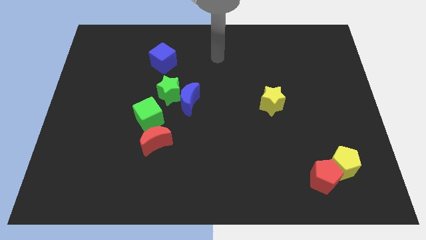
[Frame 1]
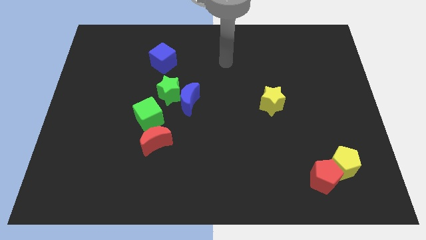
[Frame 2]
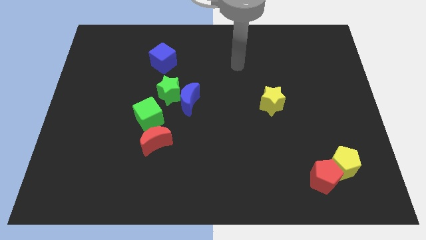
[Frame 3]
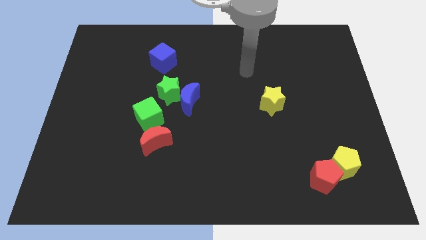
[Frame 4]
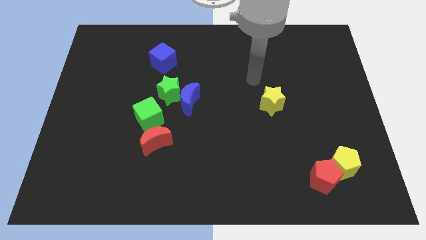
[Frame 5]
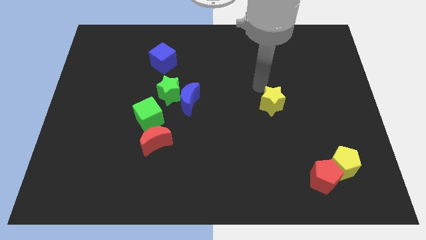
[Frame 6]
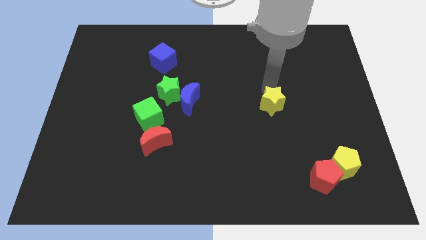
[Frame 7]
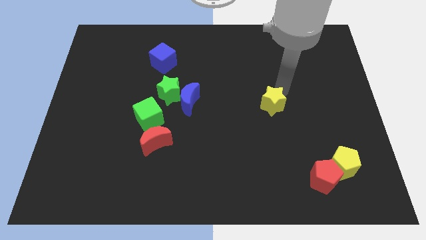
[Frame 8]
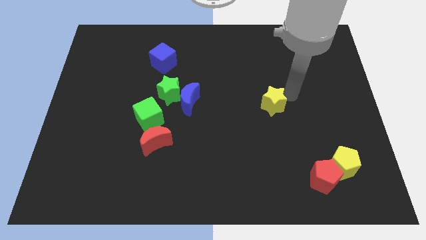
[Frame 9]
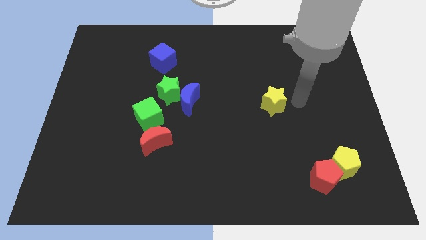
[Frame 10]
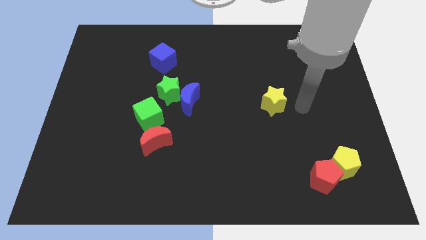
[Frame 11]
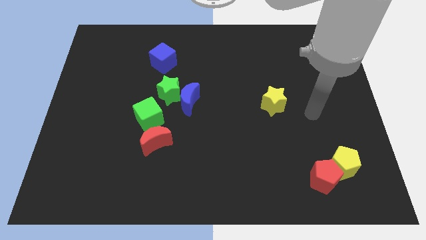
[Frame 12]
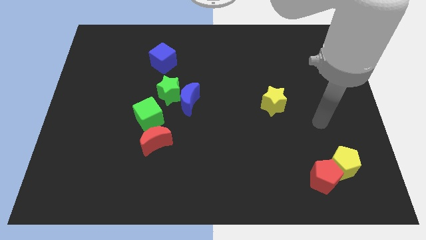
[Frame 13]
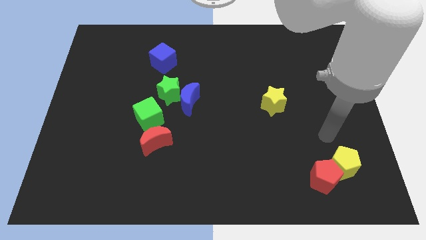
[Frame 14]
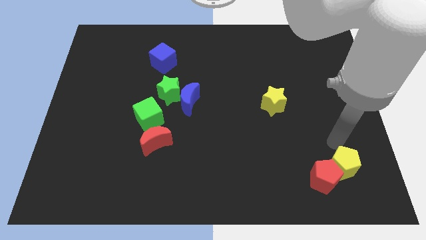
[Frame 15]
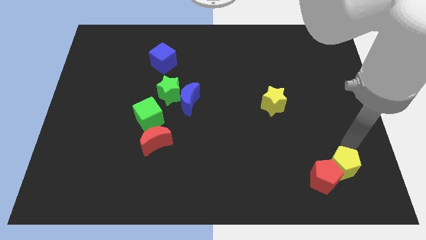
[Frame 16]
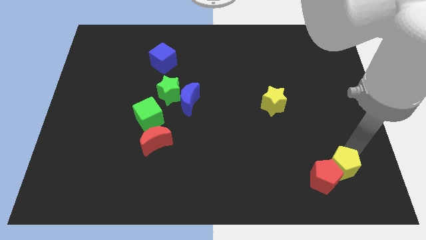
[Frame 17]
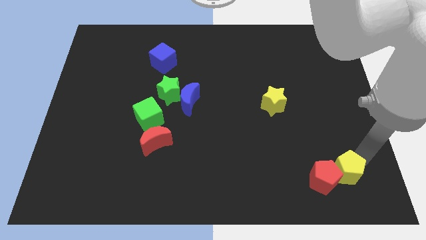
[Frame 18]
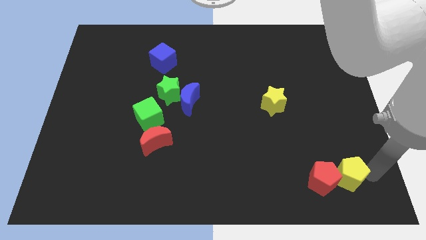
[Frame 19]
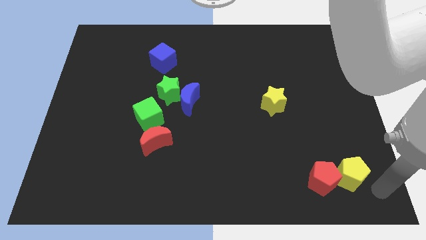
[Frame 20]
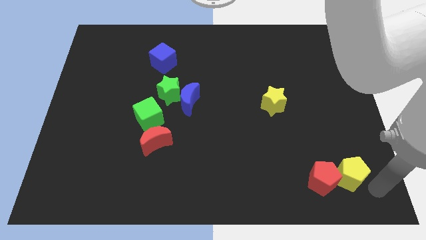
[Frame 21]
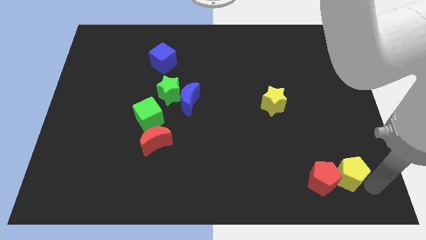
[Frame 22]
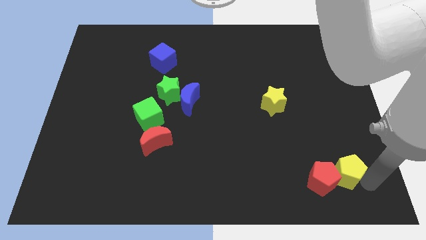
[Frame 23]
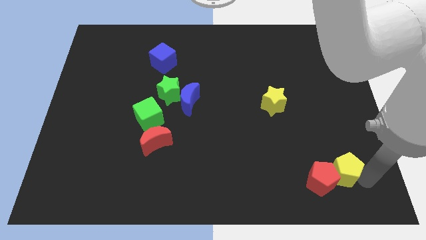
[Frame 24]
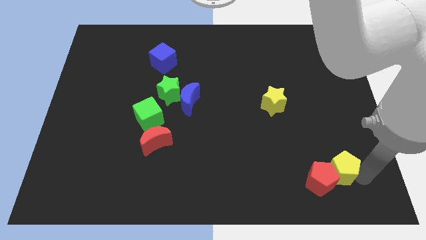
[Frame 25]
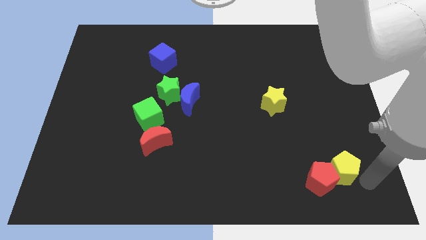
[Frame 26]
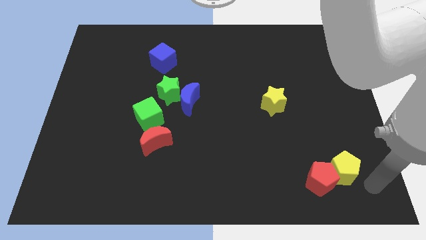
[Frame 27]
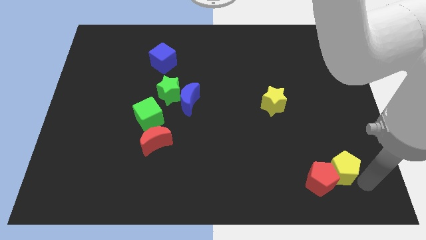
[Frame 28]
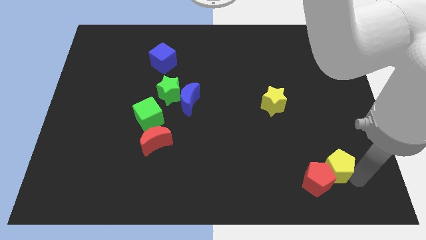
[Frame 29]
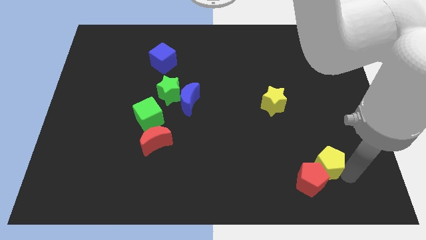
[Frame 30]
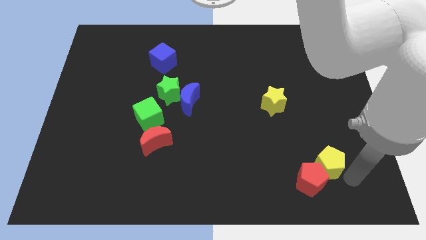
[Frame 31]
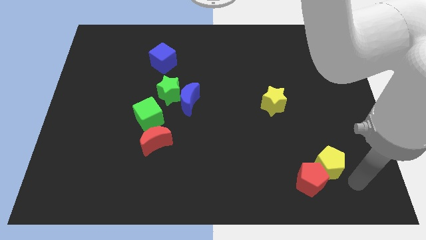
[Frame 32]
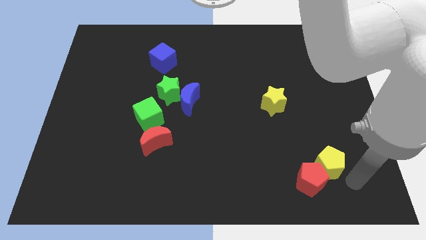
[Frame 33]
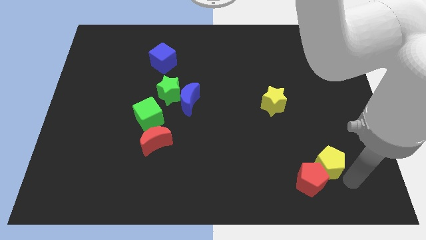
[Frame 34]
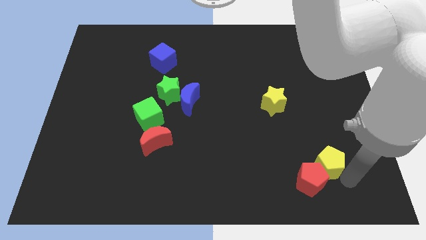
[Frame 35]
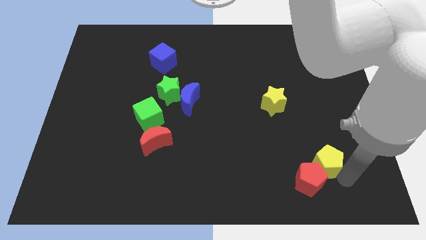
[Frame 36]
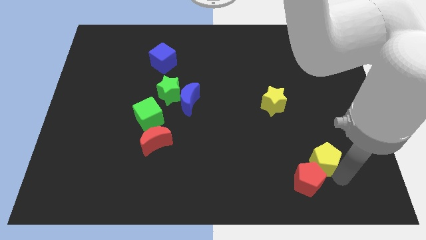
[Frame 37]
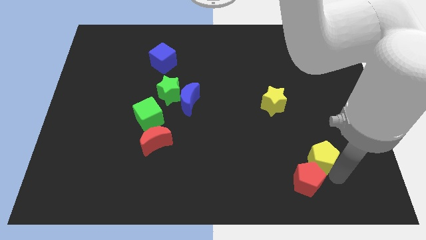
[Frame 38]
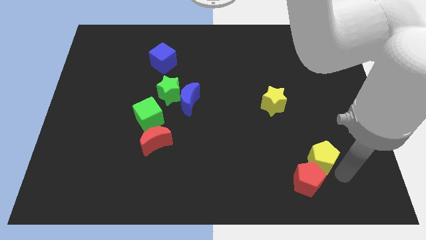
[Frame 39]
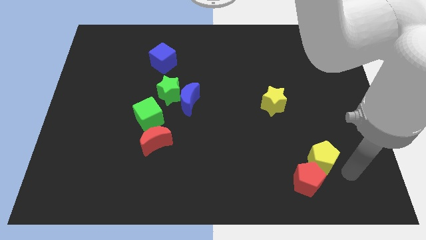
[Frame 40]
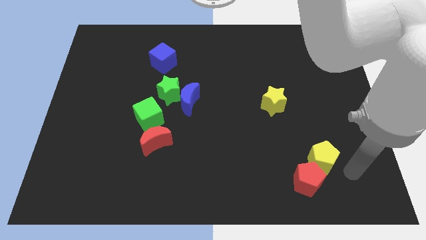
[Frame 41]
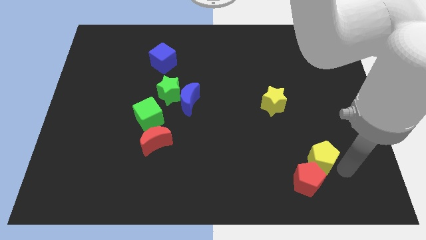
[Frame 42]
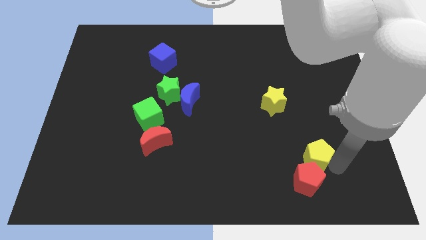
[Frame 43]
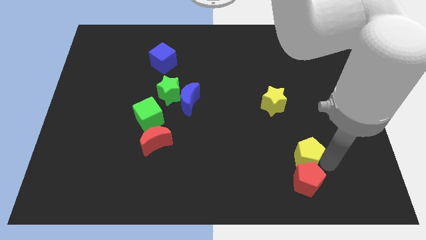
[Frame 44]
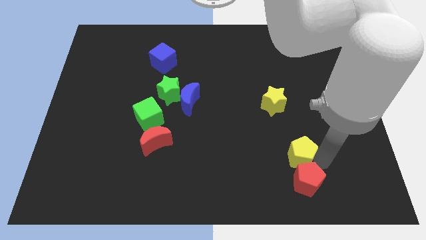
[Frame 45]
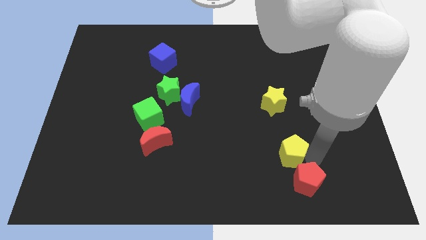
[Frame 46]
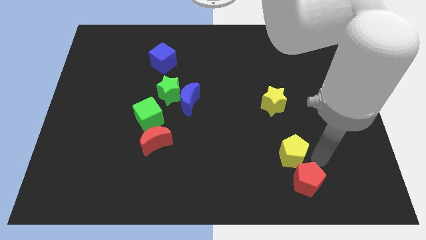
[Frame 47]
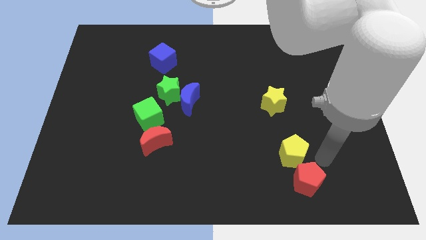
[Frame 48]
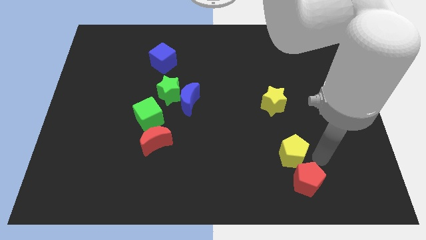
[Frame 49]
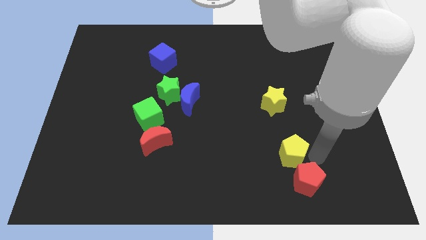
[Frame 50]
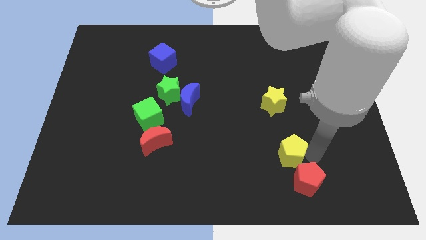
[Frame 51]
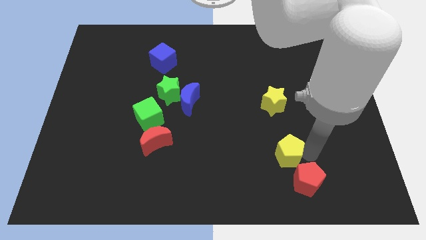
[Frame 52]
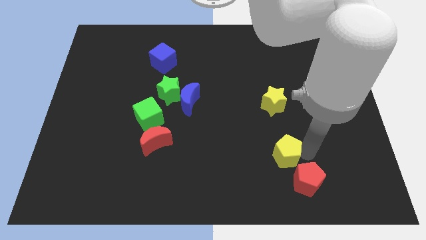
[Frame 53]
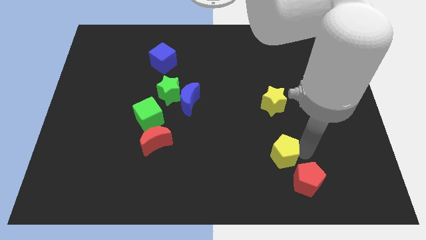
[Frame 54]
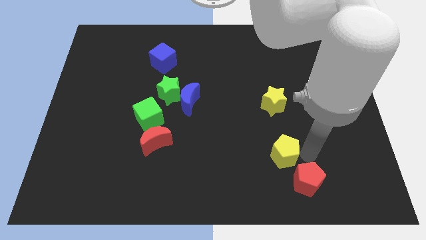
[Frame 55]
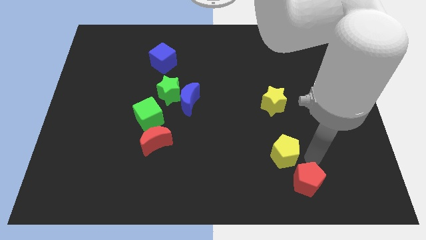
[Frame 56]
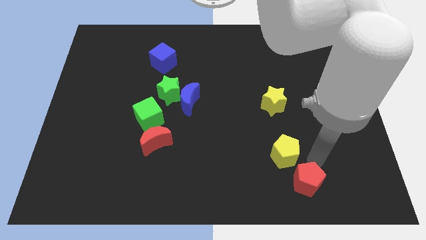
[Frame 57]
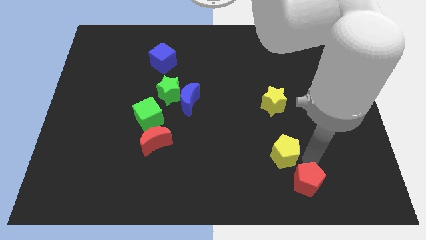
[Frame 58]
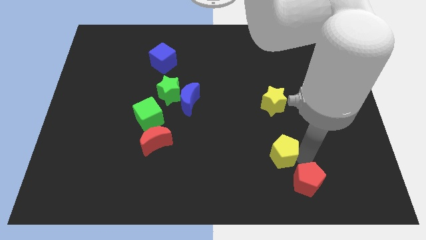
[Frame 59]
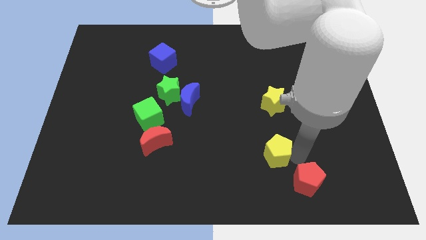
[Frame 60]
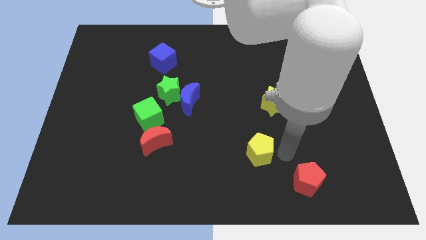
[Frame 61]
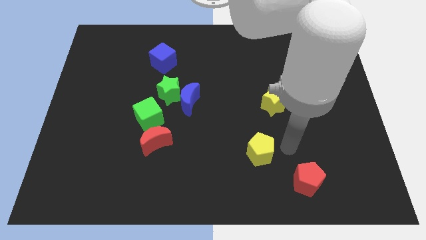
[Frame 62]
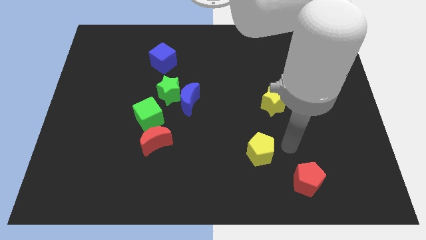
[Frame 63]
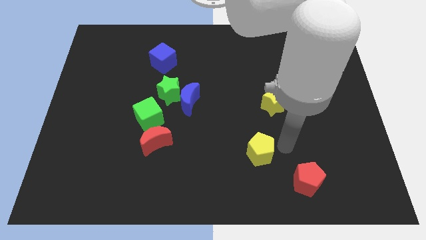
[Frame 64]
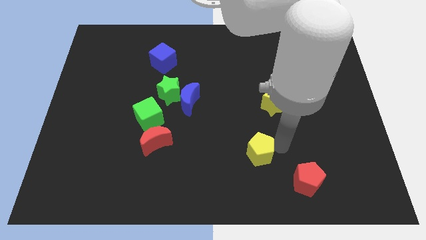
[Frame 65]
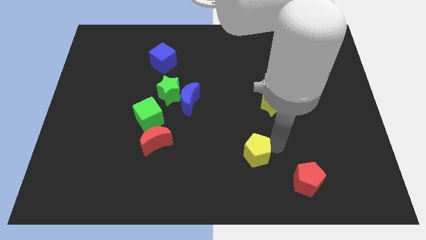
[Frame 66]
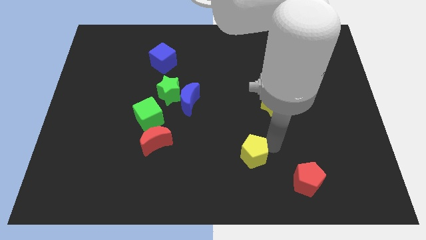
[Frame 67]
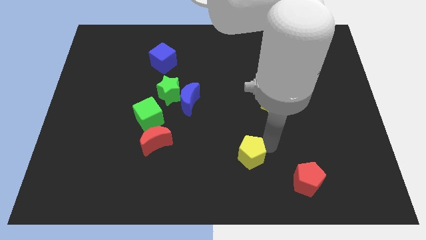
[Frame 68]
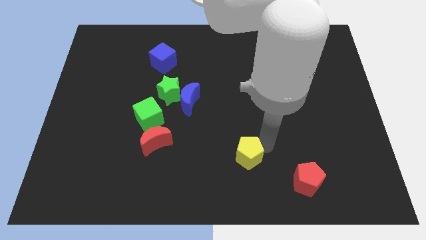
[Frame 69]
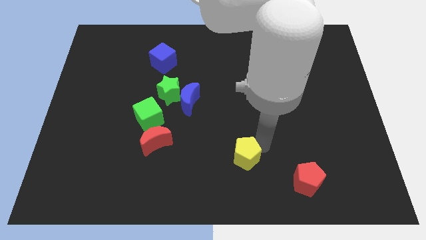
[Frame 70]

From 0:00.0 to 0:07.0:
move the yellow pentagon left

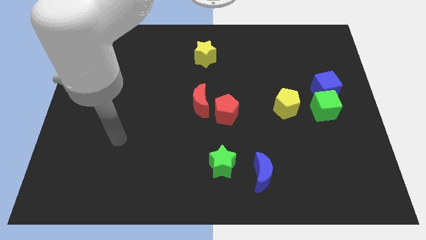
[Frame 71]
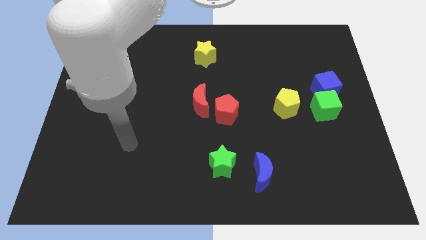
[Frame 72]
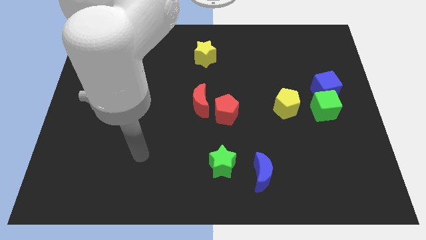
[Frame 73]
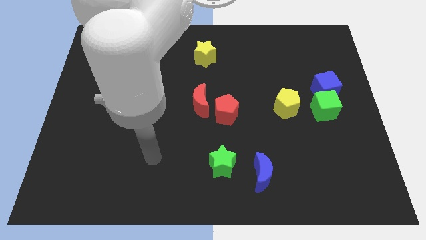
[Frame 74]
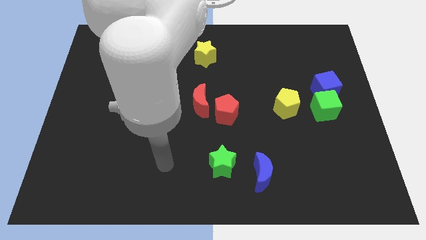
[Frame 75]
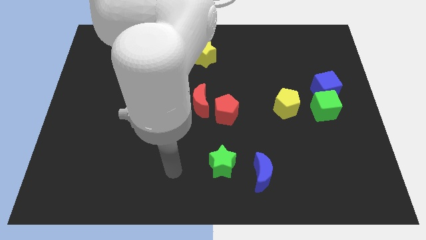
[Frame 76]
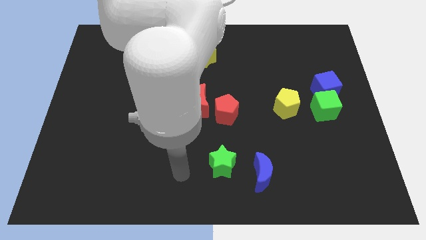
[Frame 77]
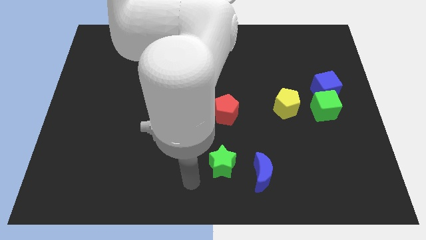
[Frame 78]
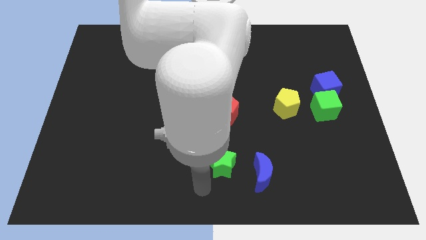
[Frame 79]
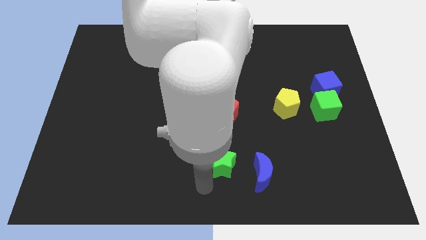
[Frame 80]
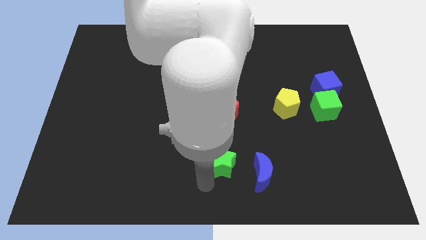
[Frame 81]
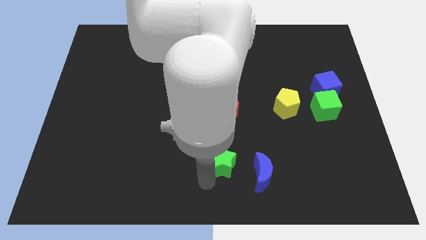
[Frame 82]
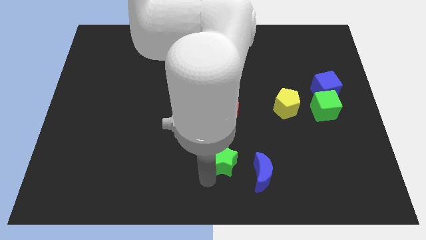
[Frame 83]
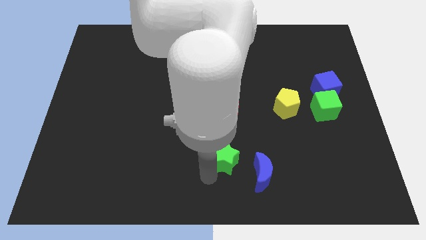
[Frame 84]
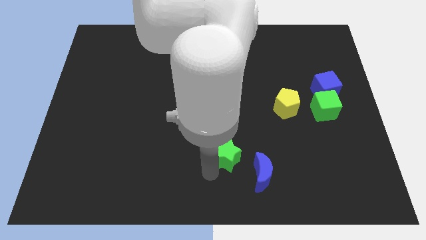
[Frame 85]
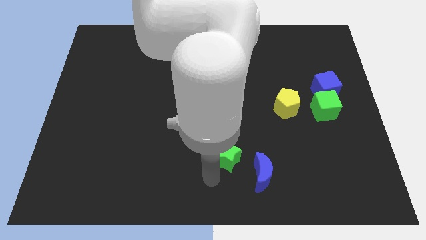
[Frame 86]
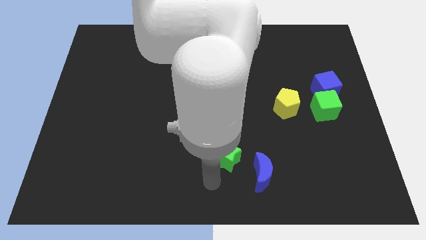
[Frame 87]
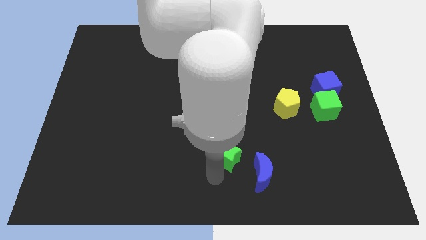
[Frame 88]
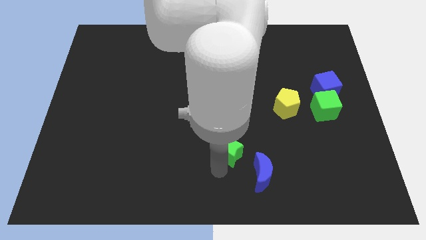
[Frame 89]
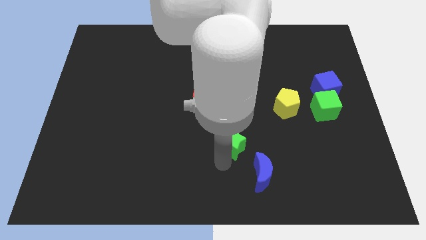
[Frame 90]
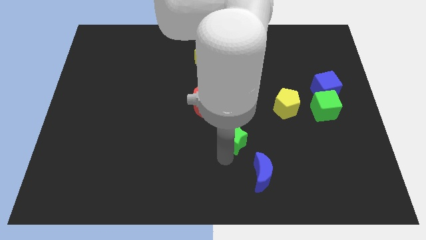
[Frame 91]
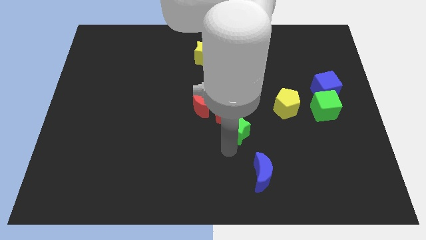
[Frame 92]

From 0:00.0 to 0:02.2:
slide the green star upwards a little bit
